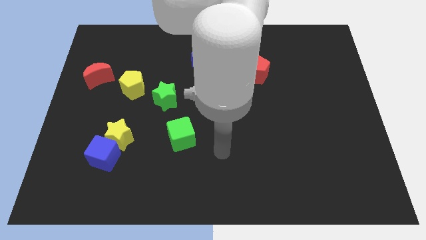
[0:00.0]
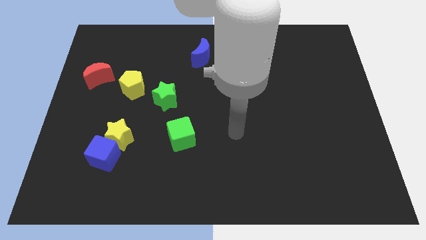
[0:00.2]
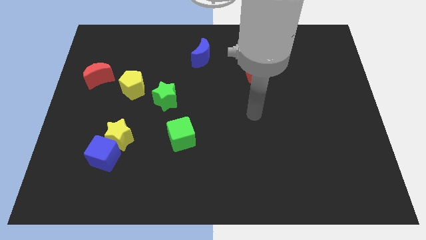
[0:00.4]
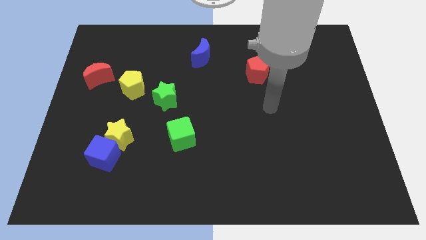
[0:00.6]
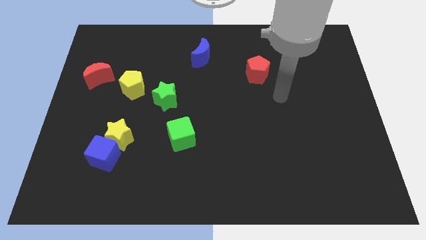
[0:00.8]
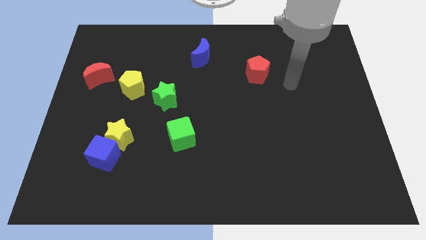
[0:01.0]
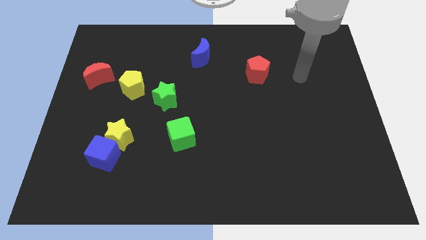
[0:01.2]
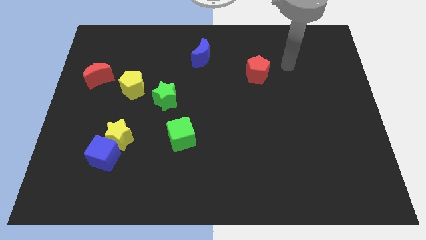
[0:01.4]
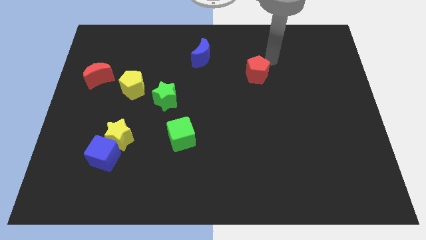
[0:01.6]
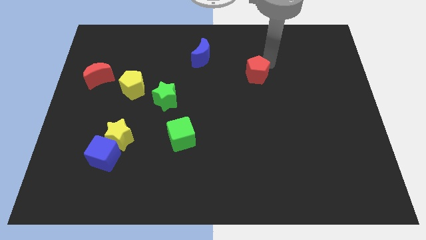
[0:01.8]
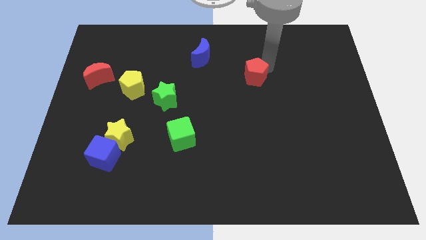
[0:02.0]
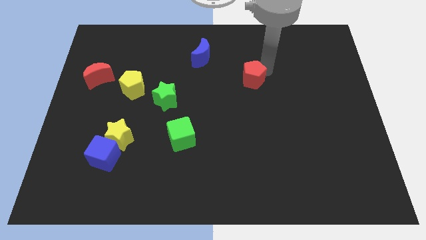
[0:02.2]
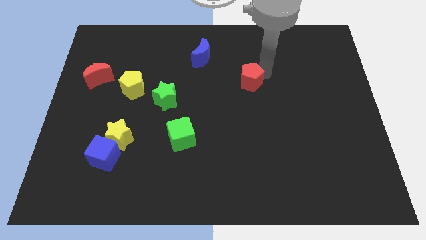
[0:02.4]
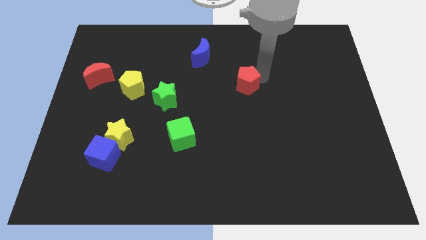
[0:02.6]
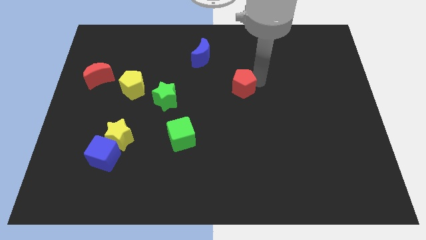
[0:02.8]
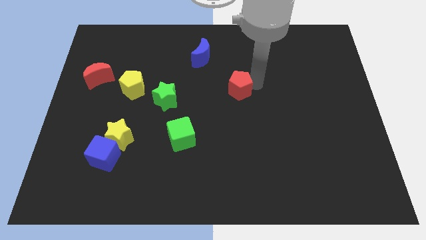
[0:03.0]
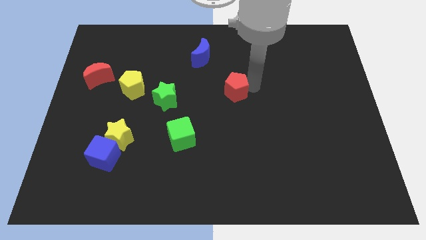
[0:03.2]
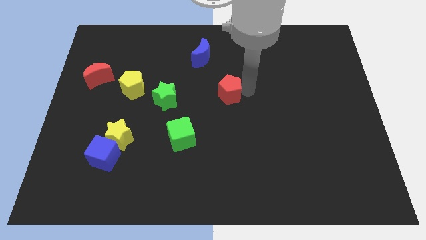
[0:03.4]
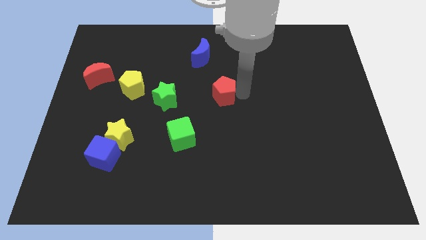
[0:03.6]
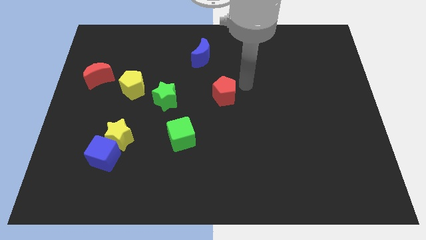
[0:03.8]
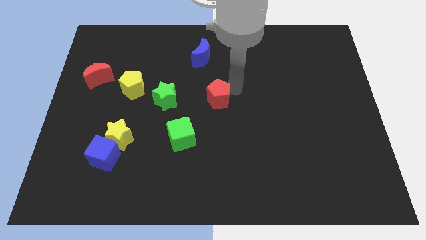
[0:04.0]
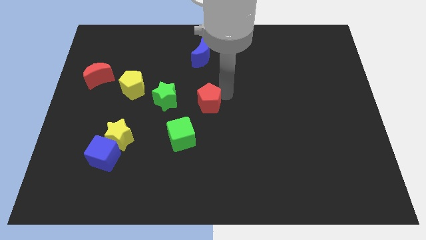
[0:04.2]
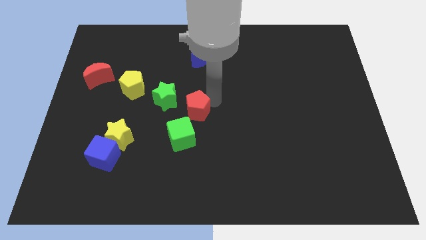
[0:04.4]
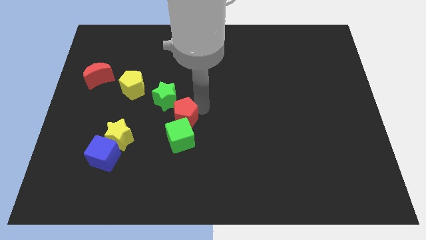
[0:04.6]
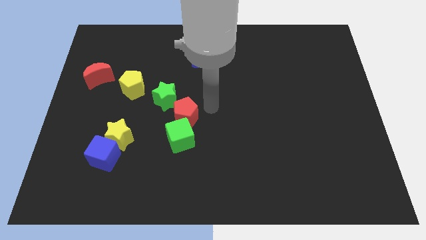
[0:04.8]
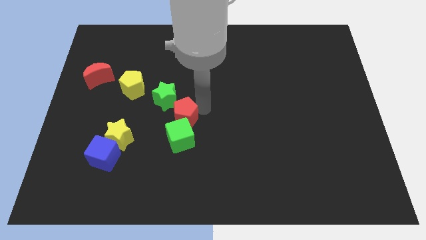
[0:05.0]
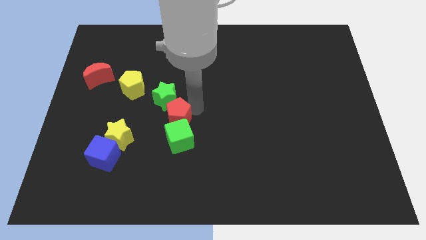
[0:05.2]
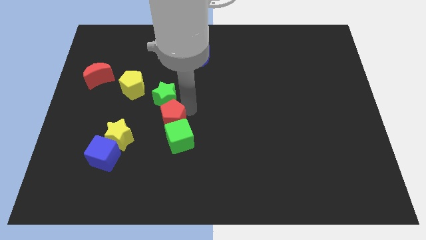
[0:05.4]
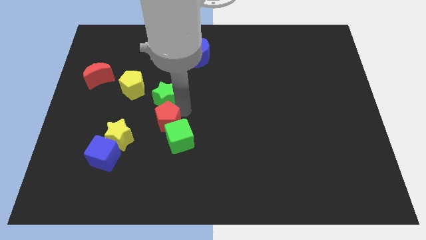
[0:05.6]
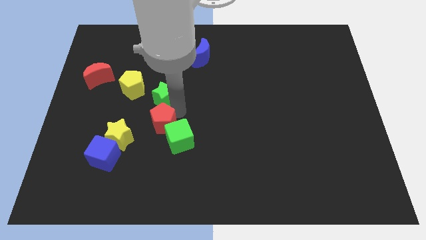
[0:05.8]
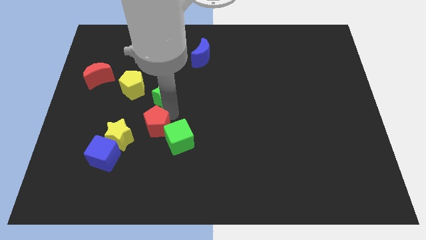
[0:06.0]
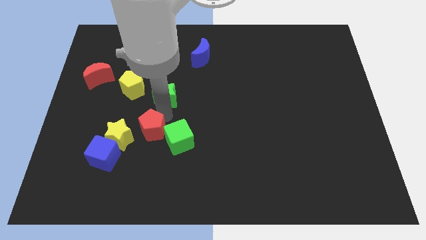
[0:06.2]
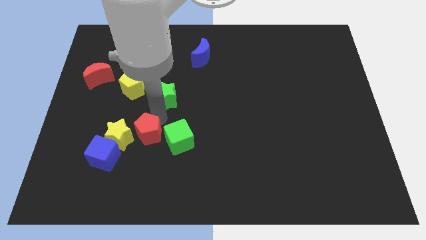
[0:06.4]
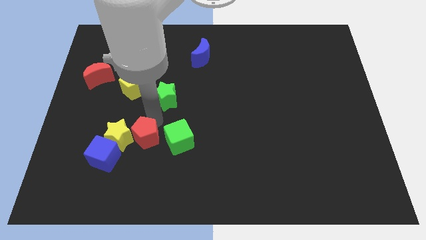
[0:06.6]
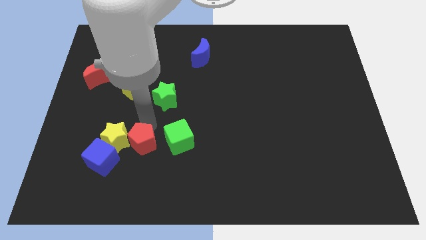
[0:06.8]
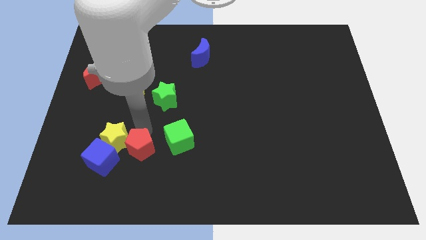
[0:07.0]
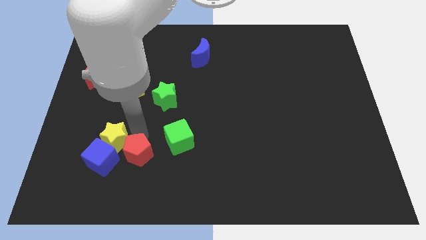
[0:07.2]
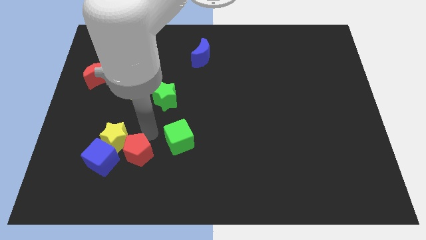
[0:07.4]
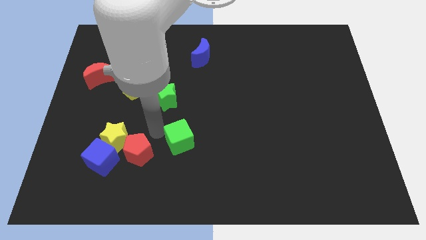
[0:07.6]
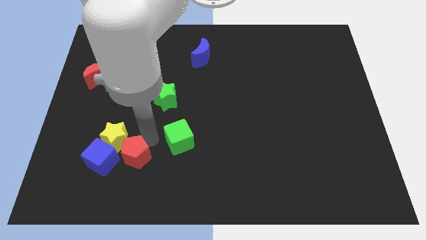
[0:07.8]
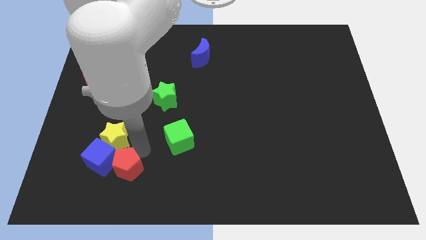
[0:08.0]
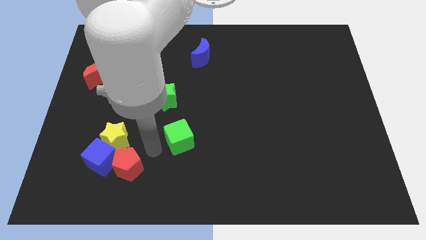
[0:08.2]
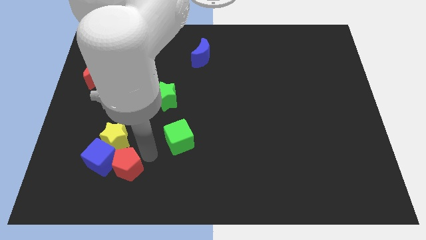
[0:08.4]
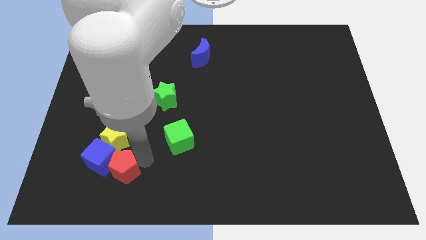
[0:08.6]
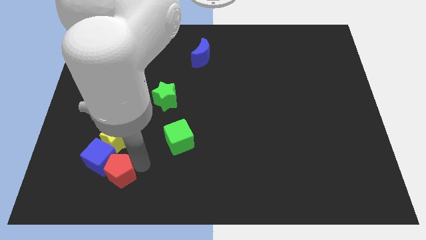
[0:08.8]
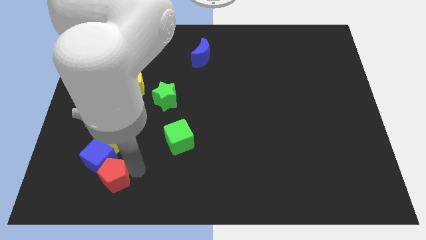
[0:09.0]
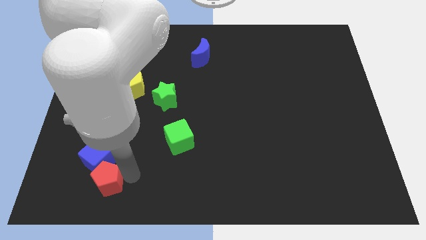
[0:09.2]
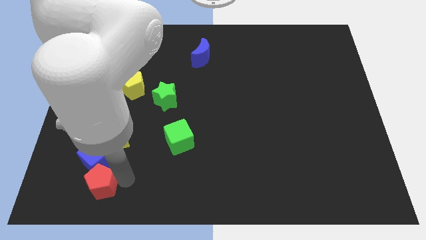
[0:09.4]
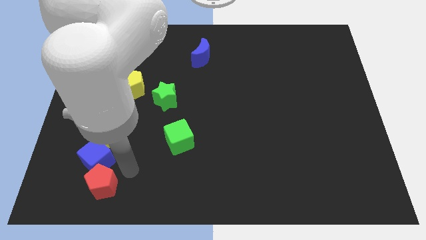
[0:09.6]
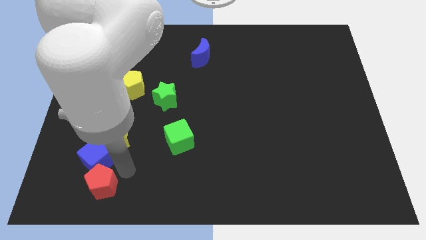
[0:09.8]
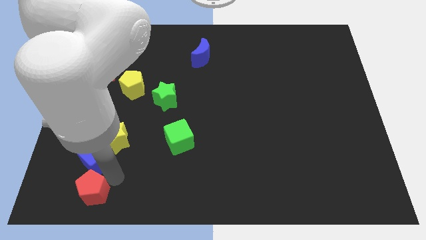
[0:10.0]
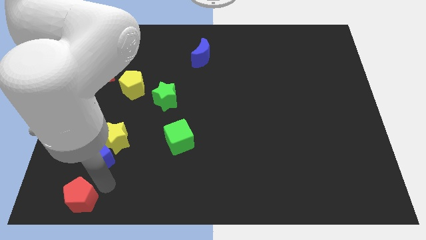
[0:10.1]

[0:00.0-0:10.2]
push the red pentagon to the bottom left corner

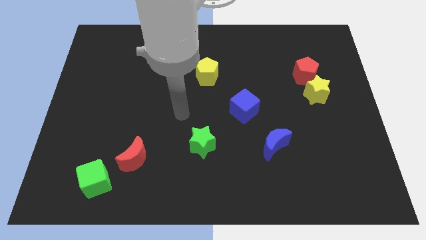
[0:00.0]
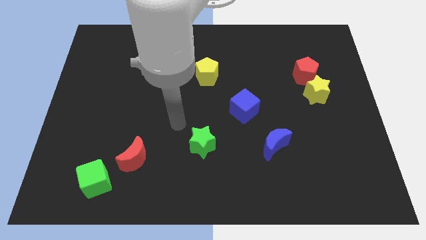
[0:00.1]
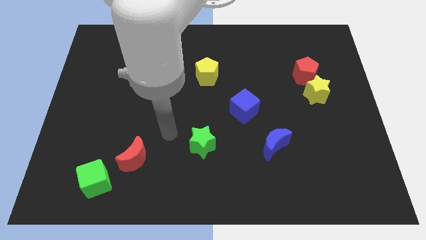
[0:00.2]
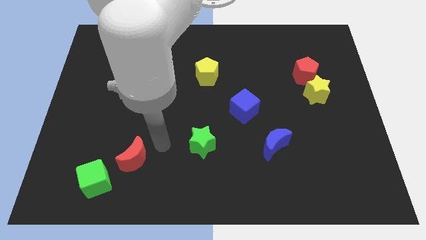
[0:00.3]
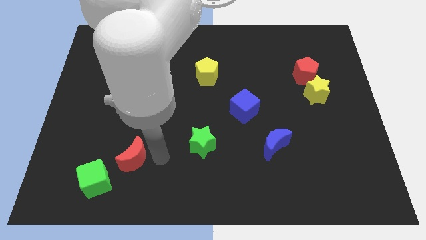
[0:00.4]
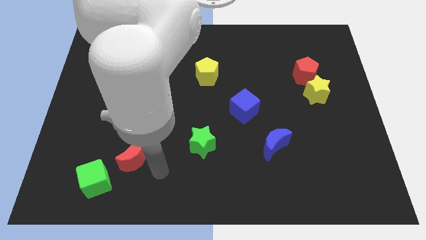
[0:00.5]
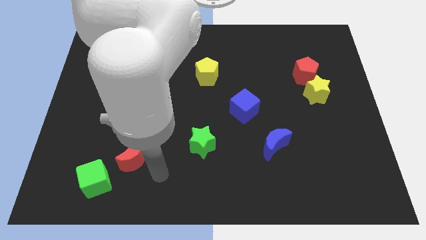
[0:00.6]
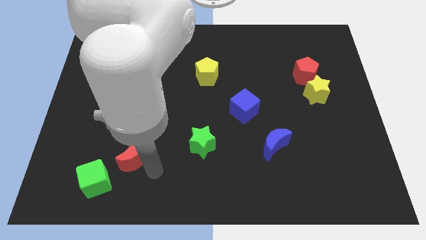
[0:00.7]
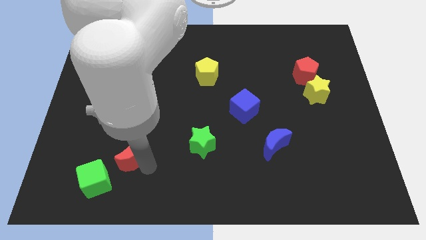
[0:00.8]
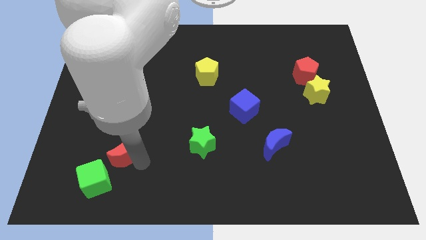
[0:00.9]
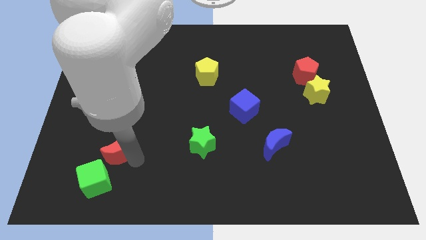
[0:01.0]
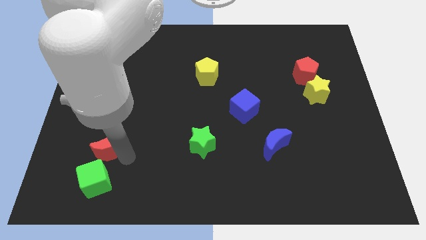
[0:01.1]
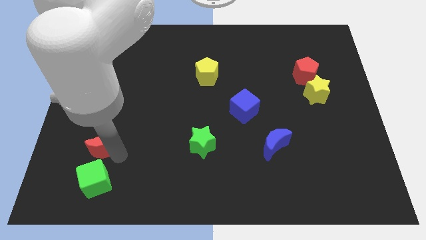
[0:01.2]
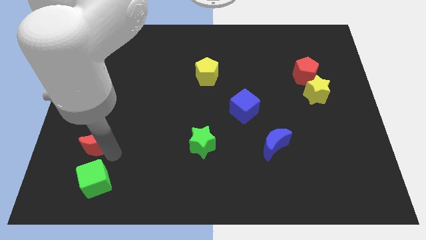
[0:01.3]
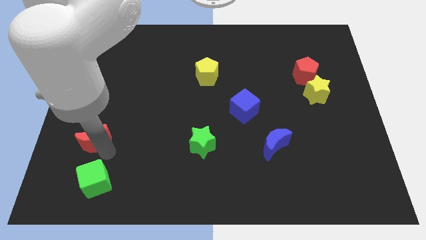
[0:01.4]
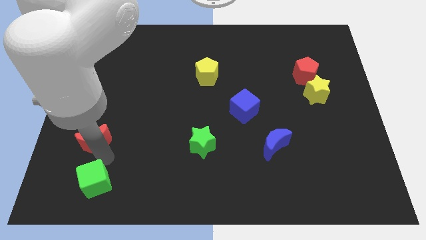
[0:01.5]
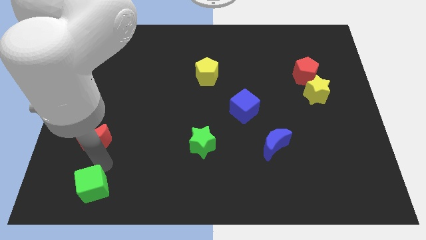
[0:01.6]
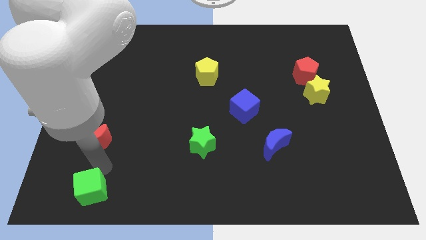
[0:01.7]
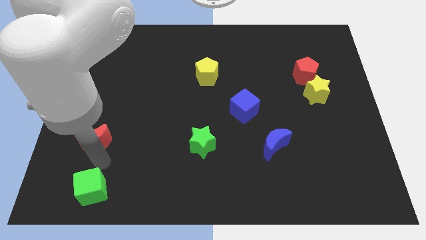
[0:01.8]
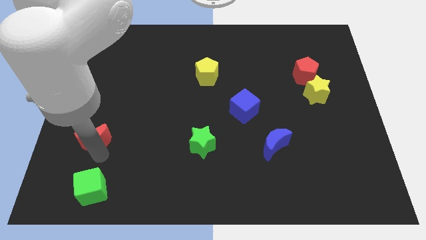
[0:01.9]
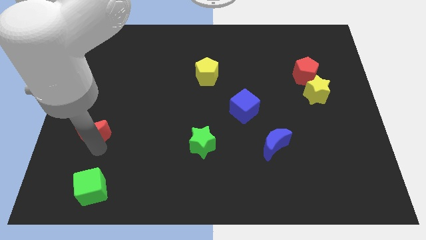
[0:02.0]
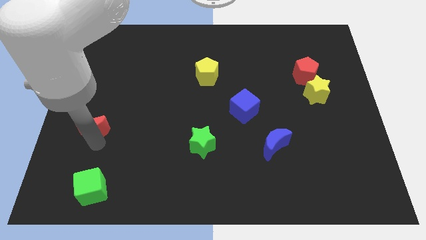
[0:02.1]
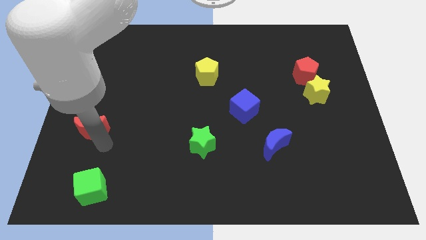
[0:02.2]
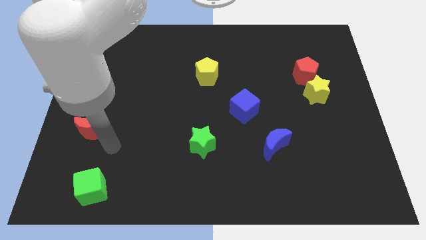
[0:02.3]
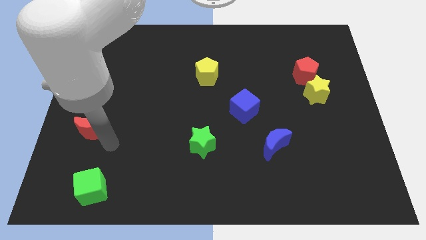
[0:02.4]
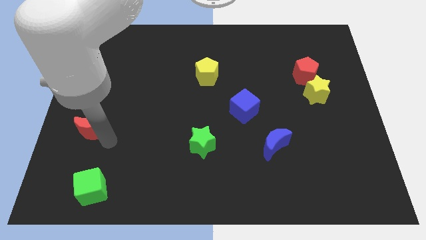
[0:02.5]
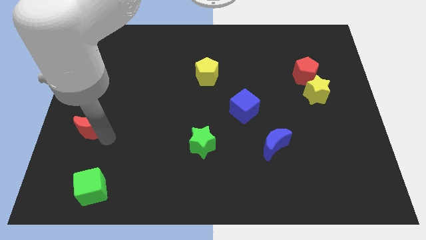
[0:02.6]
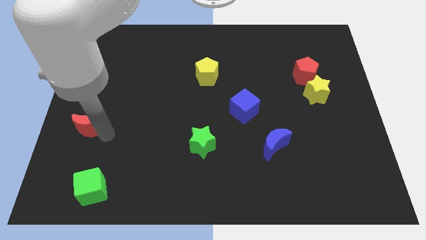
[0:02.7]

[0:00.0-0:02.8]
put the red moon to the left side of the board
